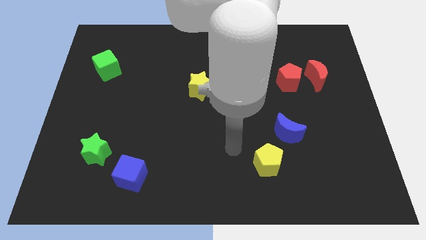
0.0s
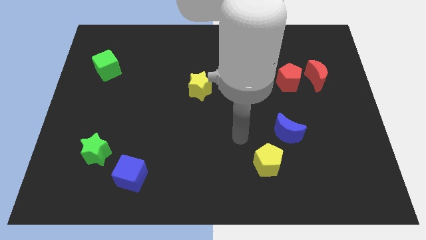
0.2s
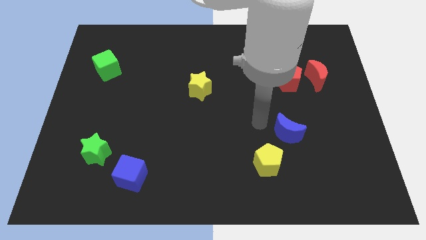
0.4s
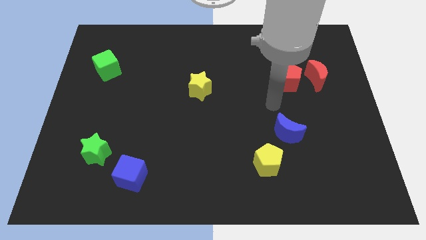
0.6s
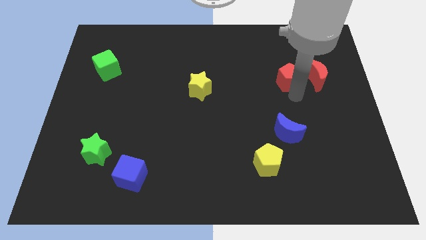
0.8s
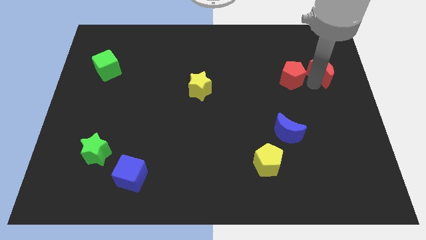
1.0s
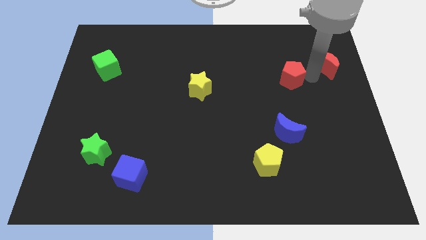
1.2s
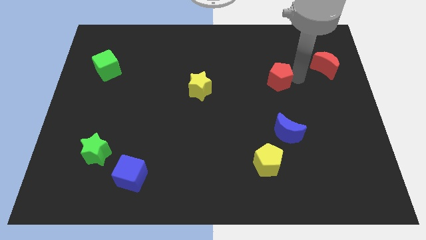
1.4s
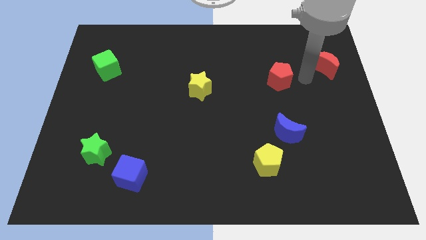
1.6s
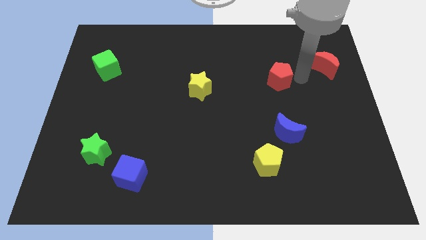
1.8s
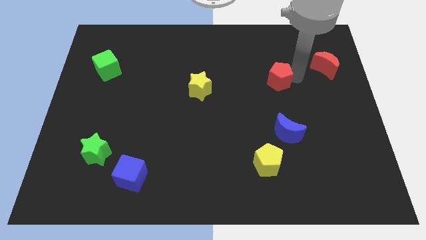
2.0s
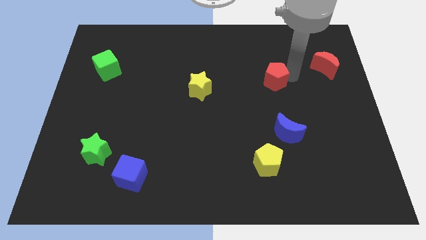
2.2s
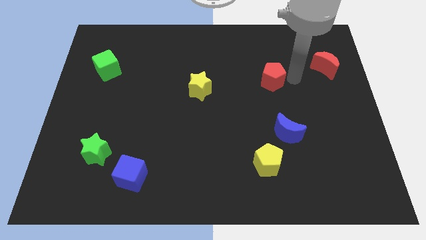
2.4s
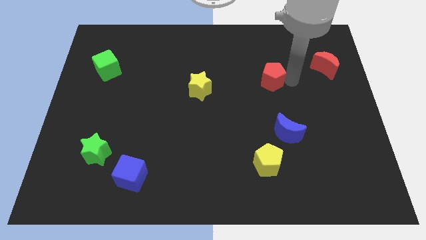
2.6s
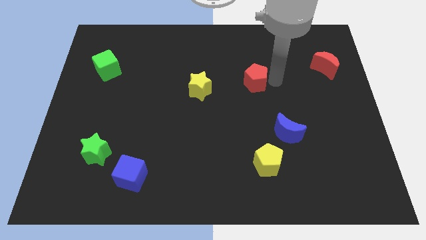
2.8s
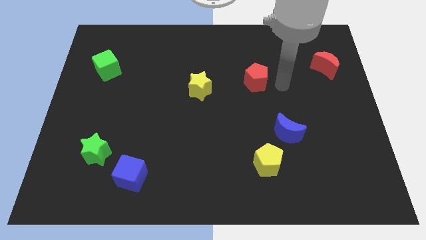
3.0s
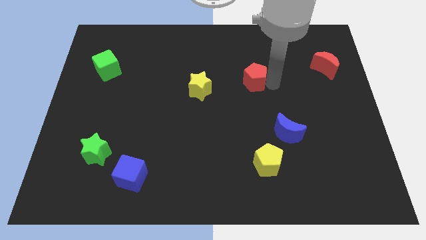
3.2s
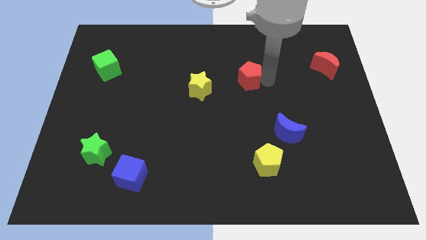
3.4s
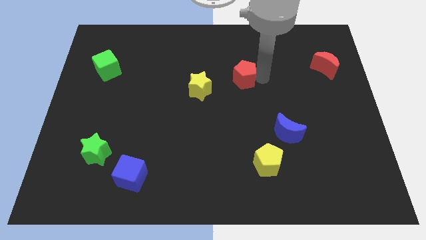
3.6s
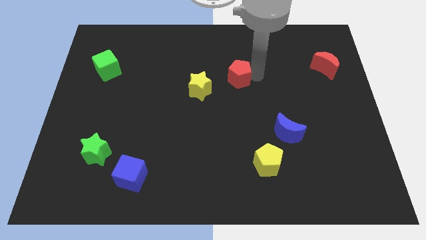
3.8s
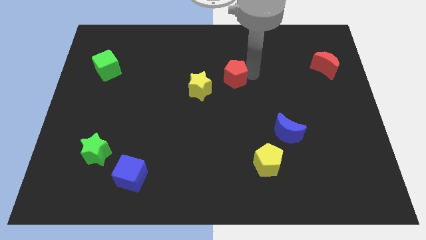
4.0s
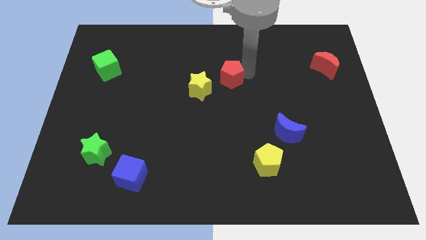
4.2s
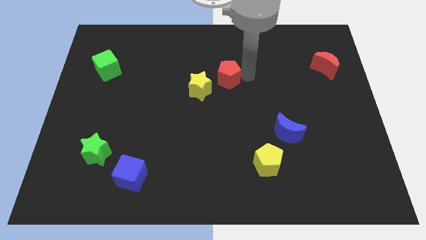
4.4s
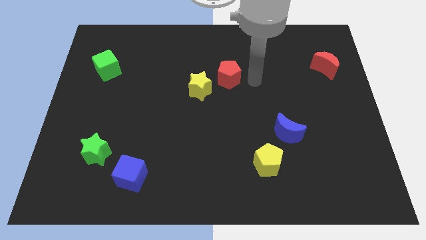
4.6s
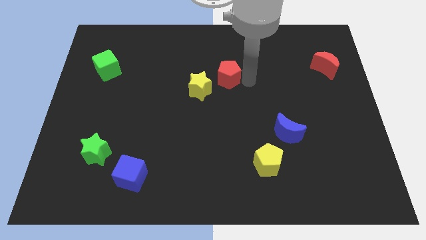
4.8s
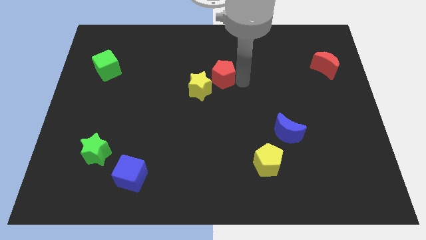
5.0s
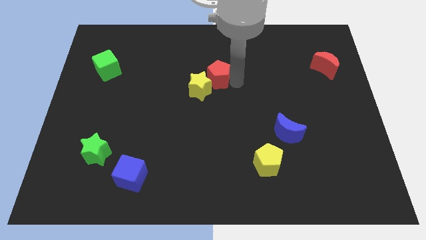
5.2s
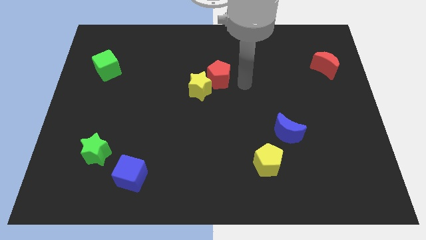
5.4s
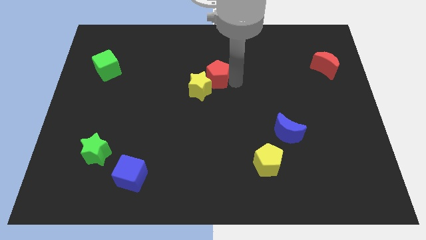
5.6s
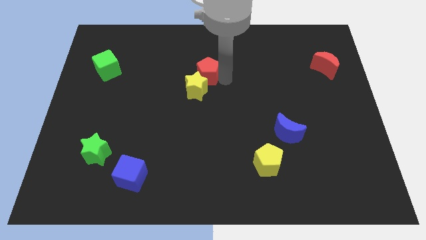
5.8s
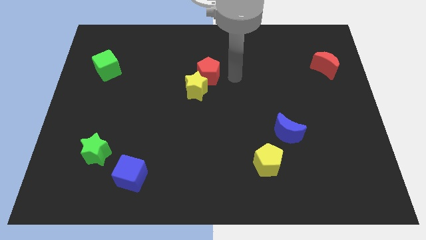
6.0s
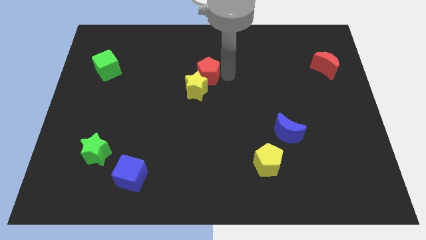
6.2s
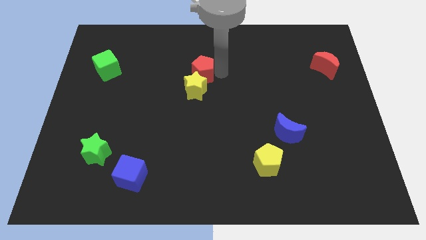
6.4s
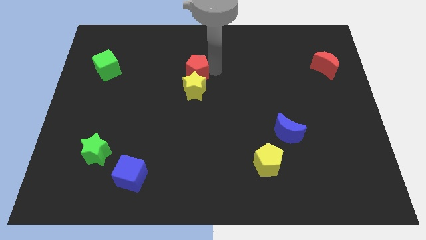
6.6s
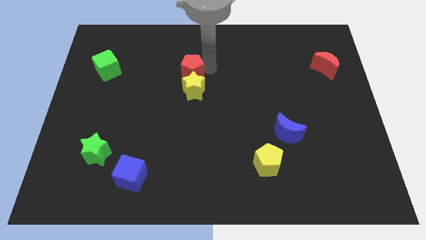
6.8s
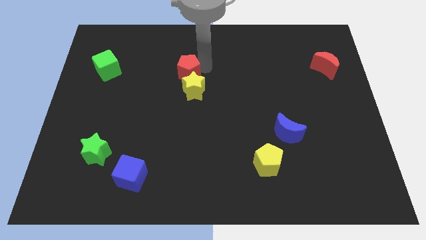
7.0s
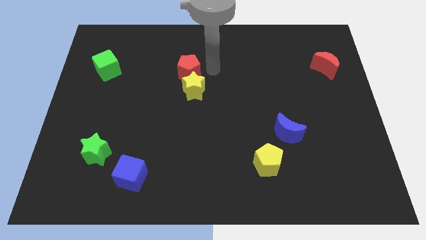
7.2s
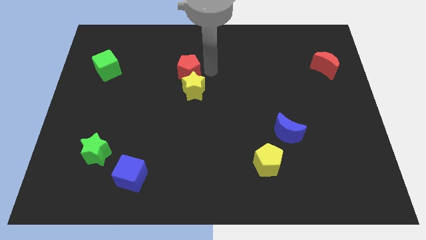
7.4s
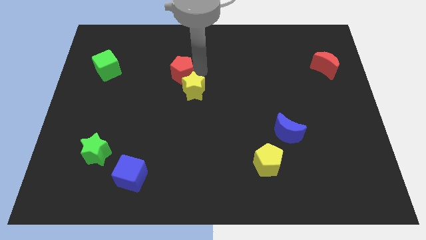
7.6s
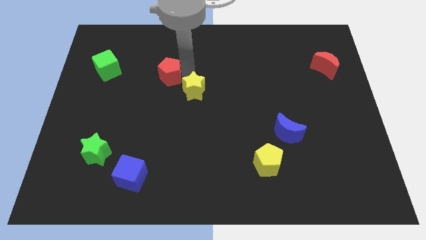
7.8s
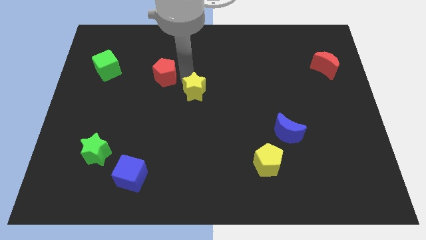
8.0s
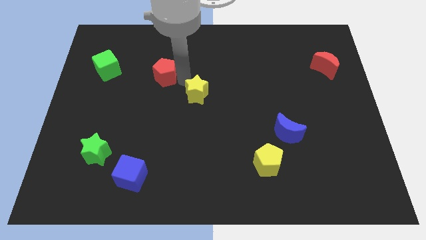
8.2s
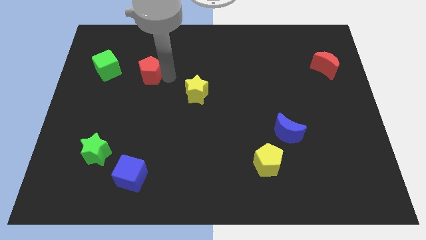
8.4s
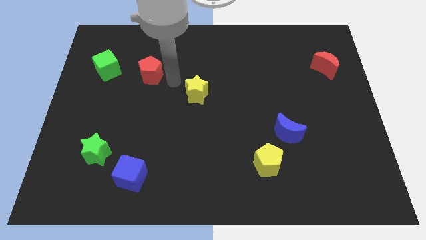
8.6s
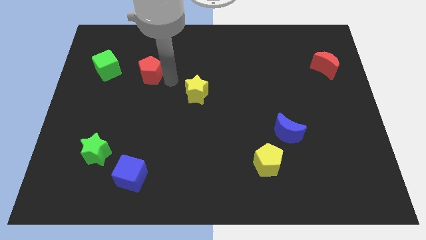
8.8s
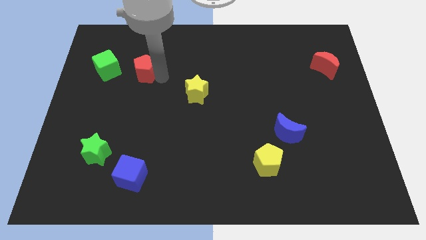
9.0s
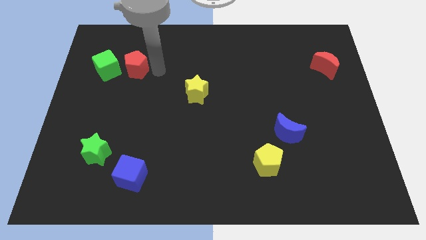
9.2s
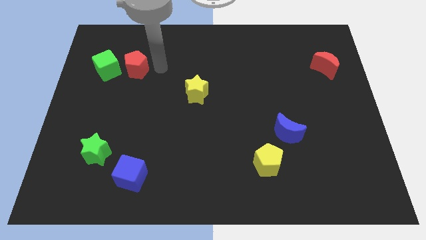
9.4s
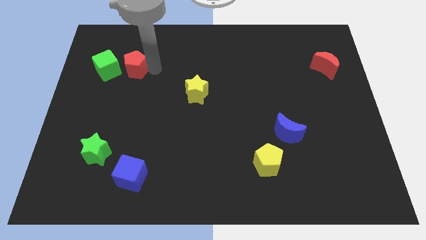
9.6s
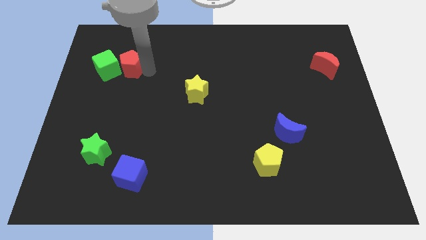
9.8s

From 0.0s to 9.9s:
put the red pentagon next to the green cube

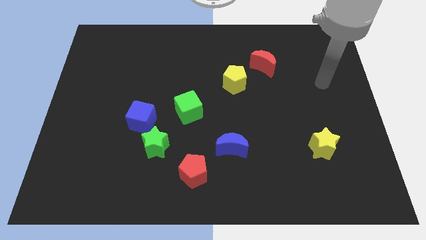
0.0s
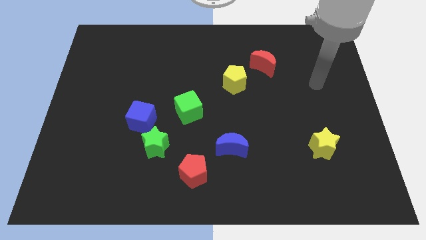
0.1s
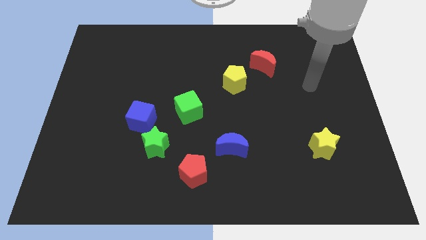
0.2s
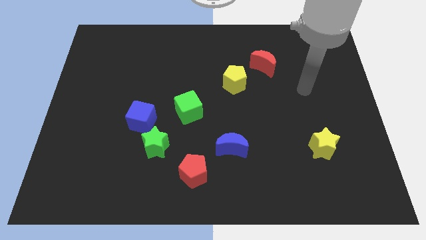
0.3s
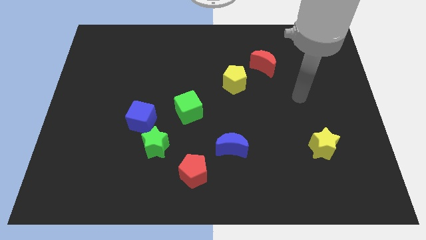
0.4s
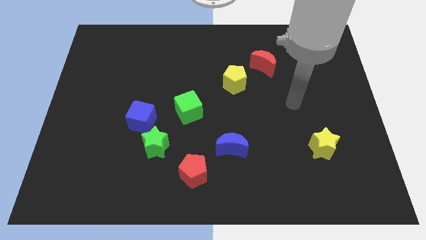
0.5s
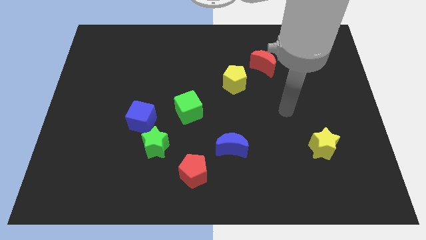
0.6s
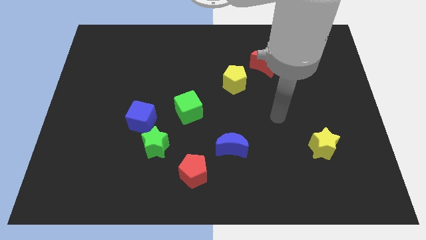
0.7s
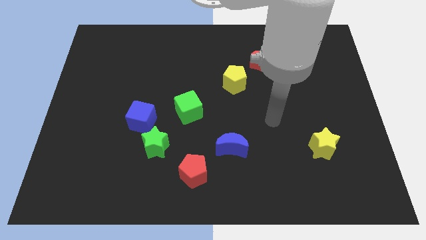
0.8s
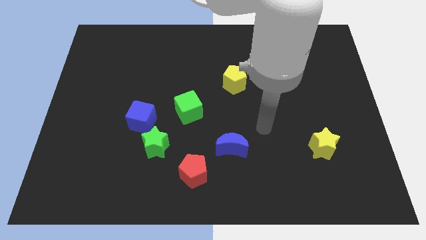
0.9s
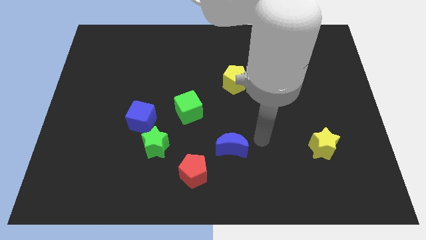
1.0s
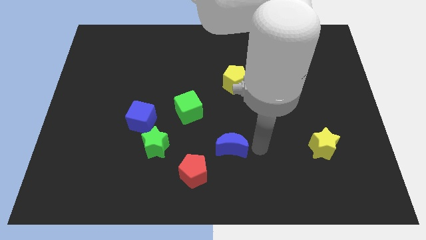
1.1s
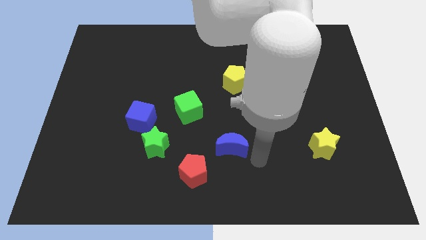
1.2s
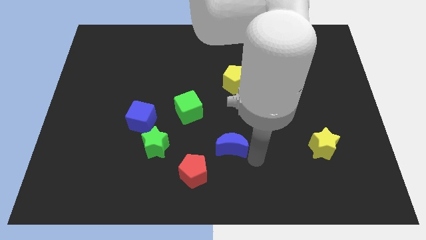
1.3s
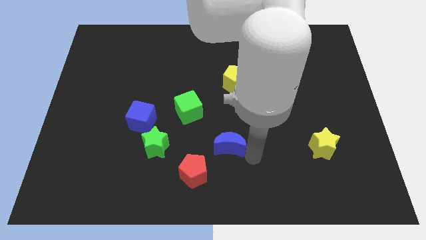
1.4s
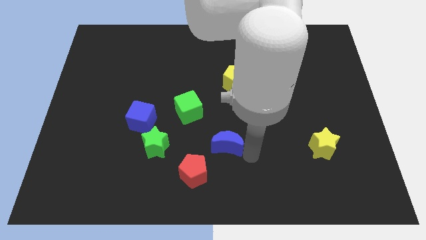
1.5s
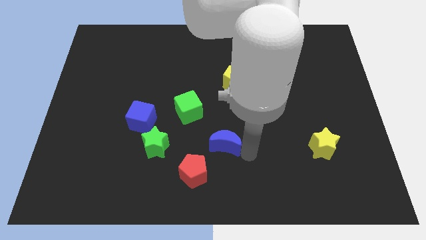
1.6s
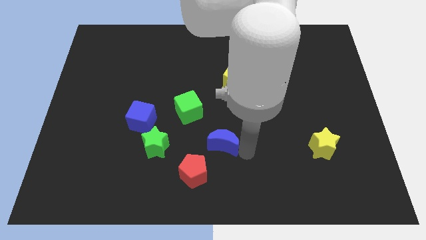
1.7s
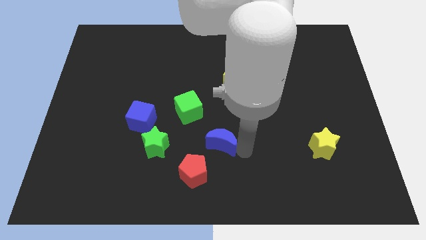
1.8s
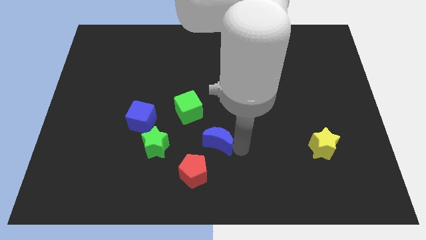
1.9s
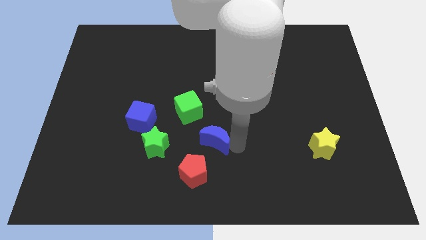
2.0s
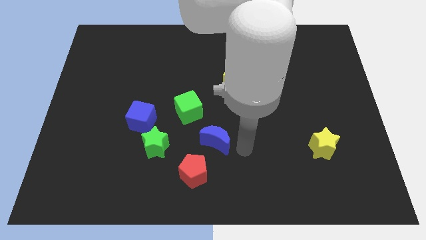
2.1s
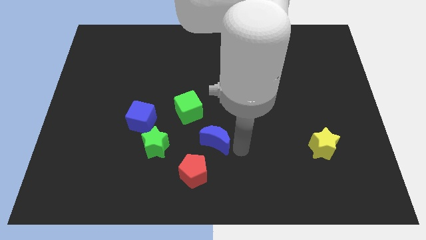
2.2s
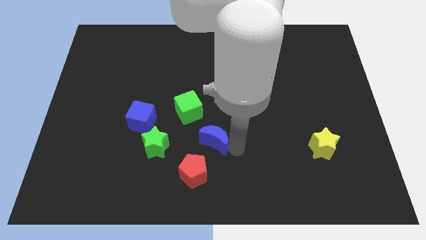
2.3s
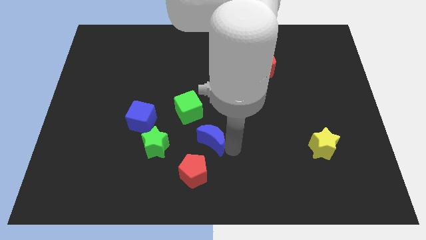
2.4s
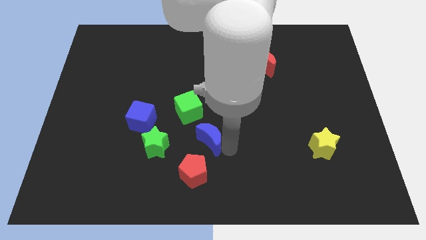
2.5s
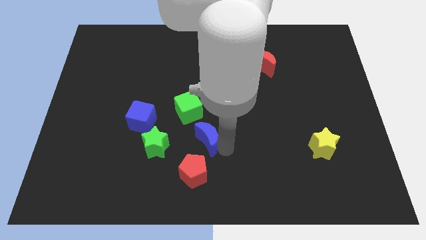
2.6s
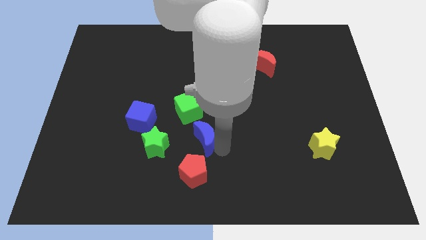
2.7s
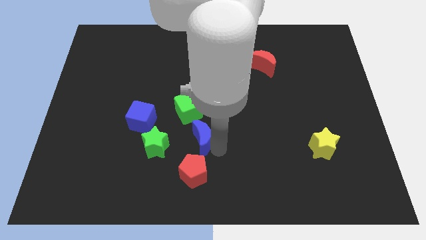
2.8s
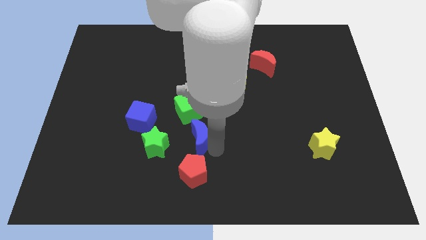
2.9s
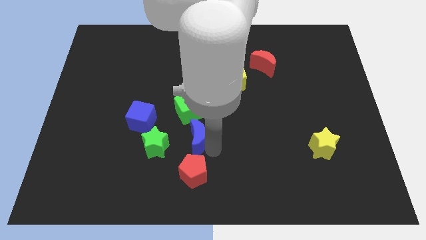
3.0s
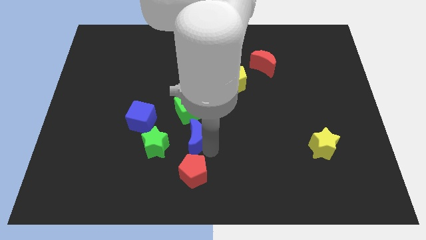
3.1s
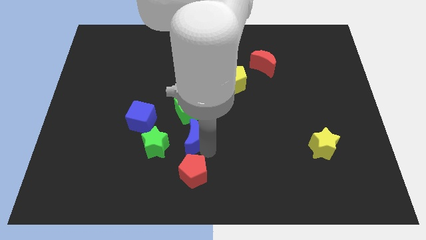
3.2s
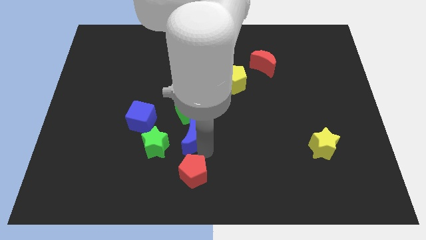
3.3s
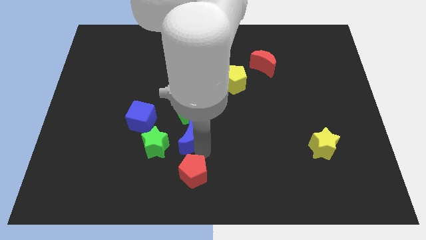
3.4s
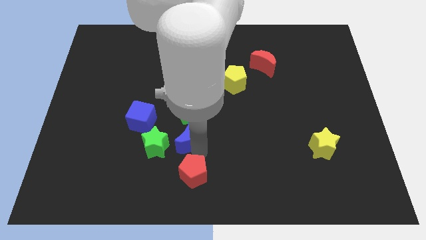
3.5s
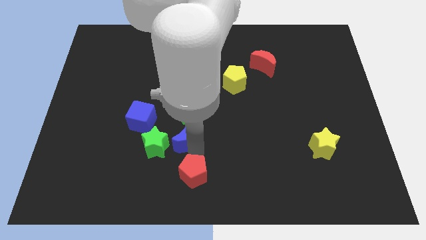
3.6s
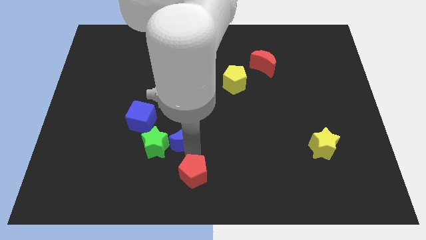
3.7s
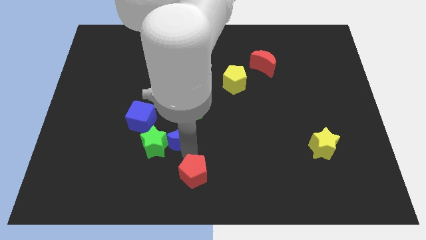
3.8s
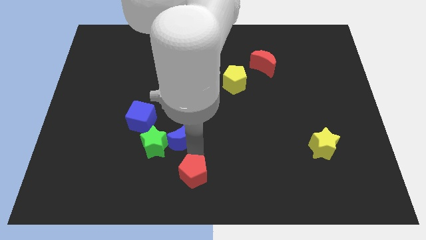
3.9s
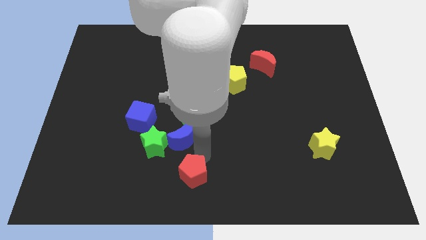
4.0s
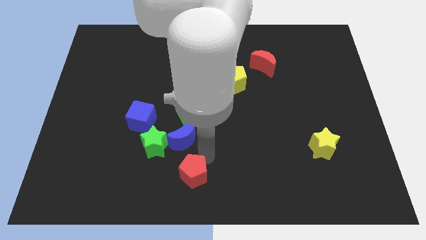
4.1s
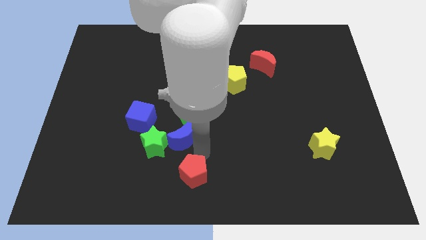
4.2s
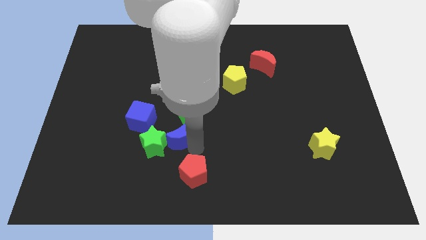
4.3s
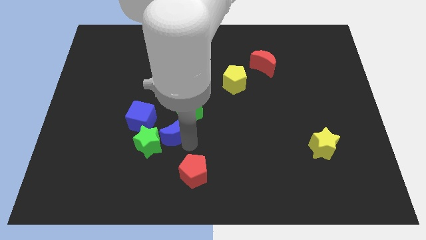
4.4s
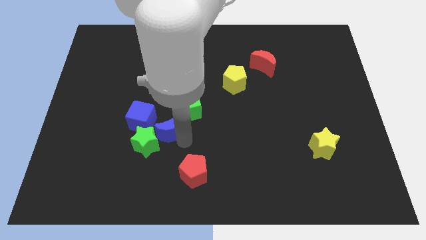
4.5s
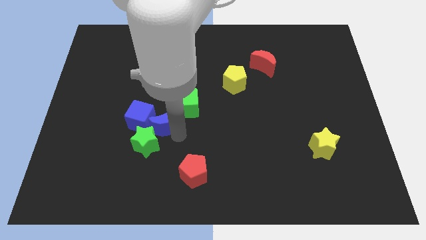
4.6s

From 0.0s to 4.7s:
push the blue moon to the blue cube
